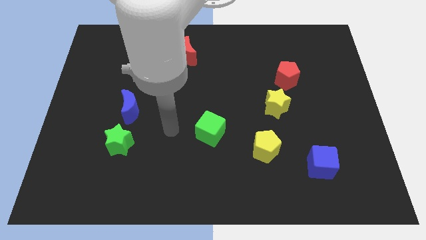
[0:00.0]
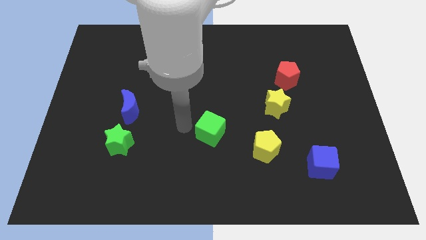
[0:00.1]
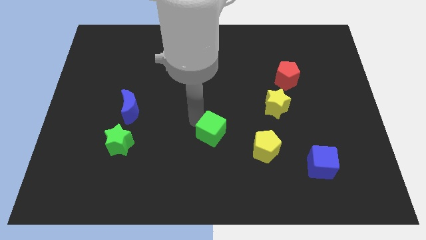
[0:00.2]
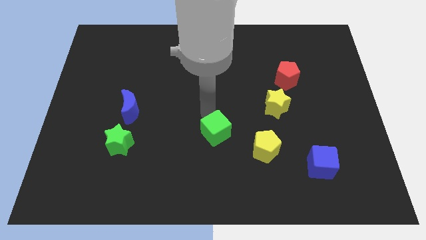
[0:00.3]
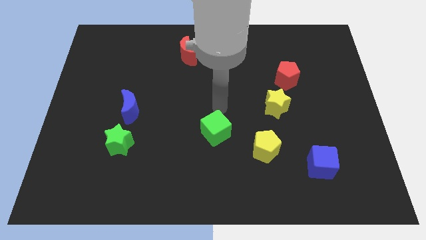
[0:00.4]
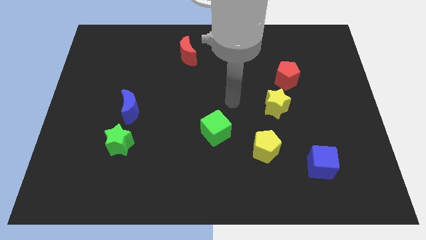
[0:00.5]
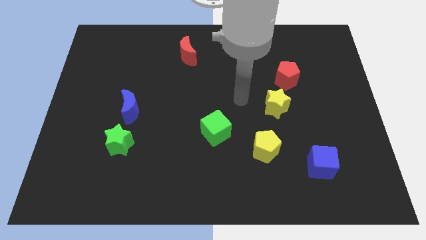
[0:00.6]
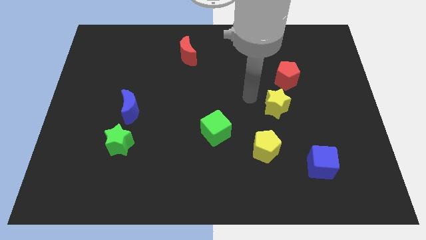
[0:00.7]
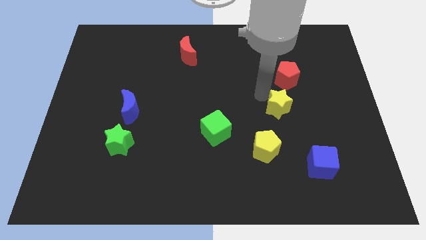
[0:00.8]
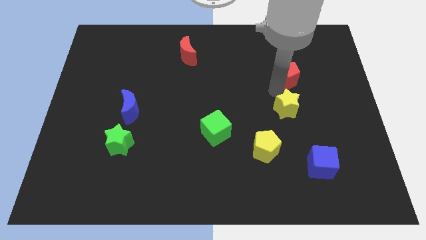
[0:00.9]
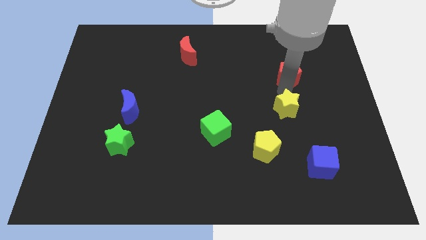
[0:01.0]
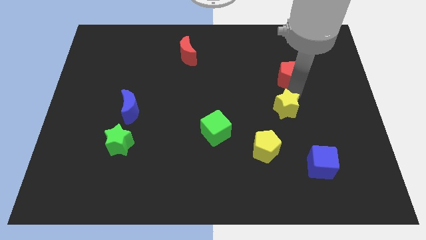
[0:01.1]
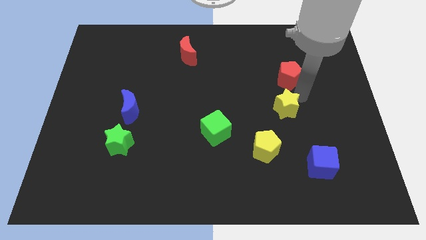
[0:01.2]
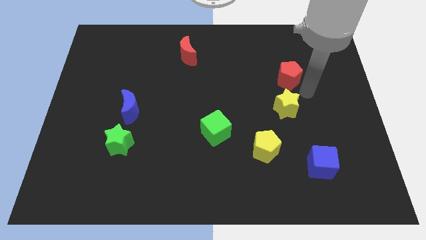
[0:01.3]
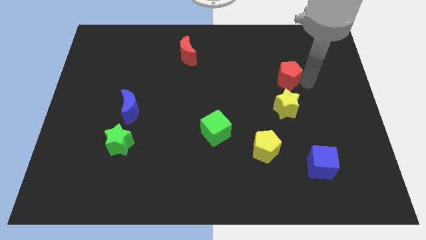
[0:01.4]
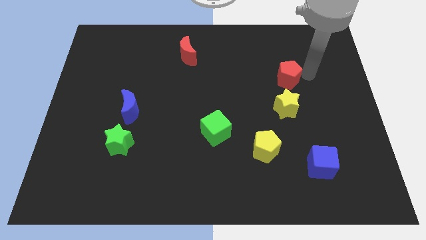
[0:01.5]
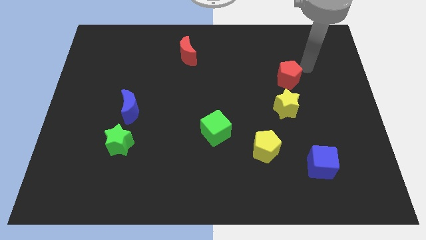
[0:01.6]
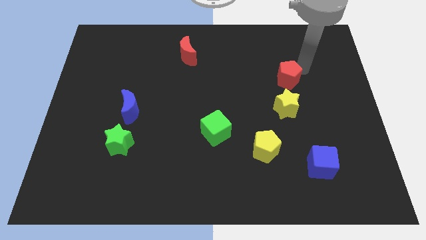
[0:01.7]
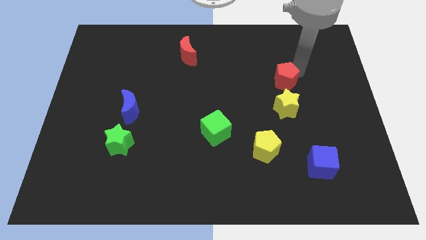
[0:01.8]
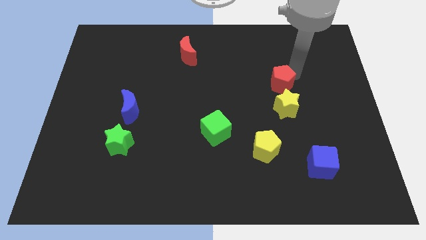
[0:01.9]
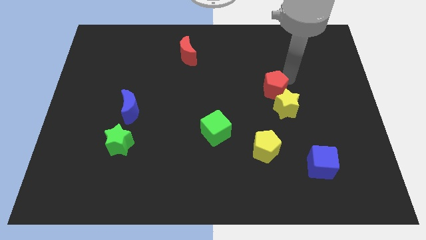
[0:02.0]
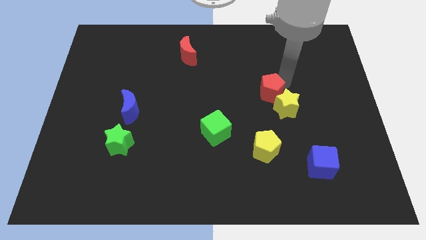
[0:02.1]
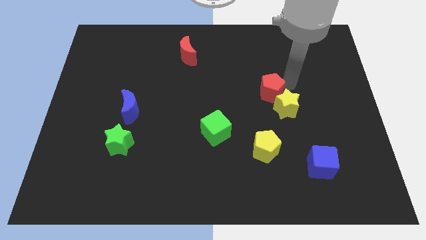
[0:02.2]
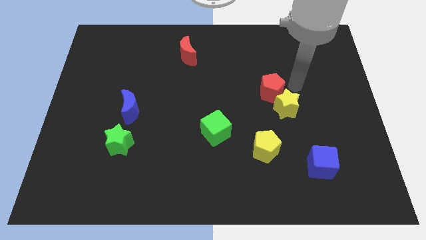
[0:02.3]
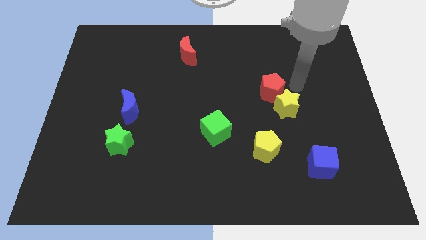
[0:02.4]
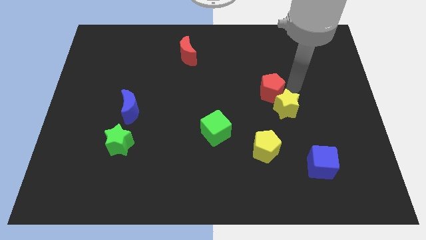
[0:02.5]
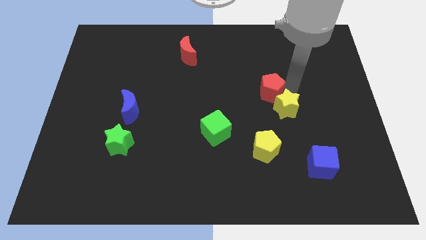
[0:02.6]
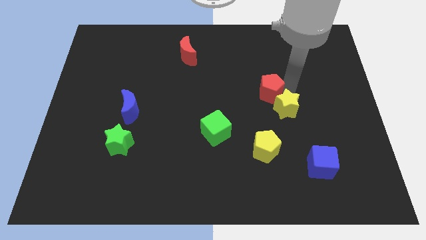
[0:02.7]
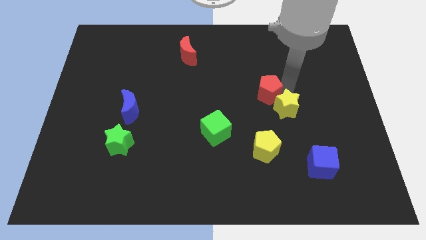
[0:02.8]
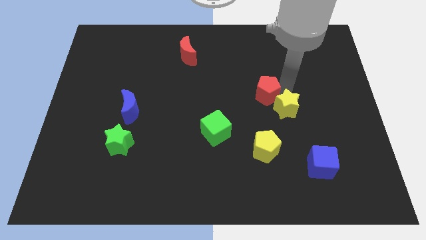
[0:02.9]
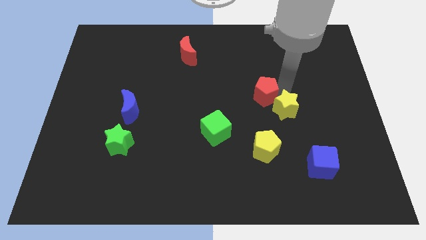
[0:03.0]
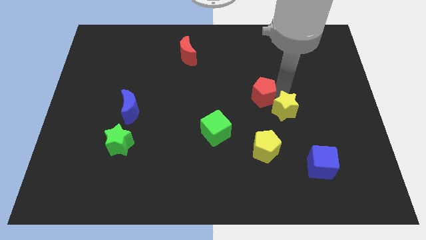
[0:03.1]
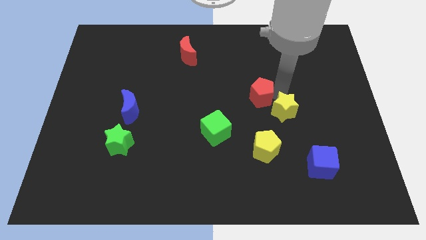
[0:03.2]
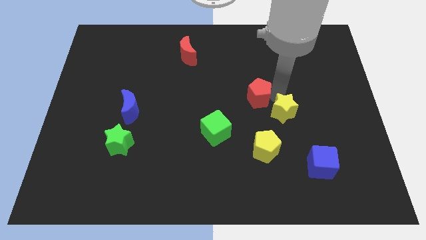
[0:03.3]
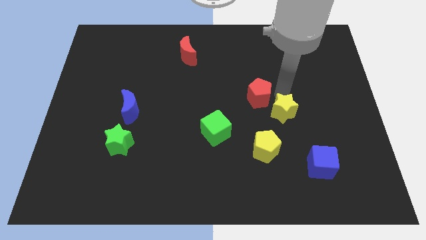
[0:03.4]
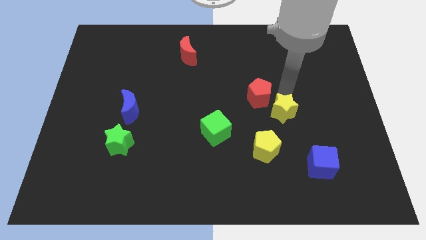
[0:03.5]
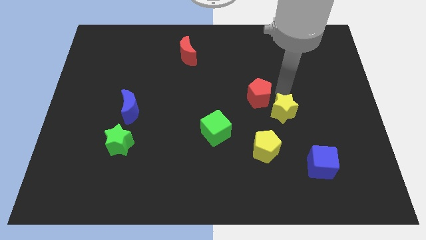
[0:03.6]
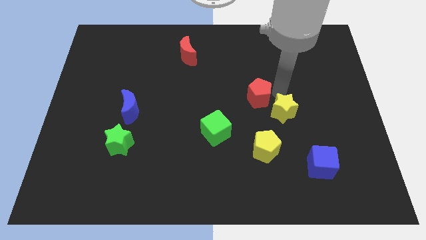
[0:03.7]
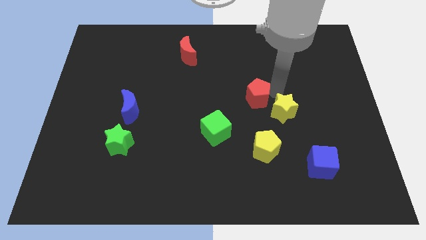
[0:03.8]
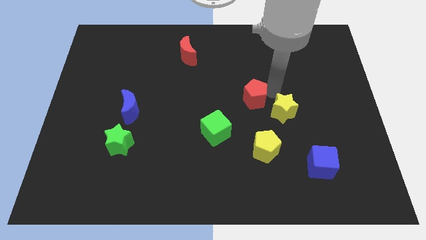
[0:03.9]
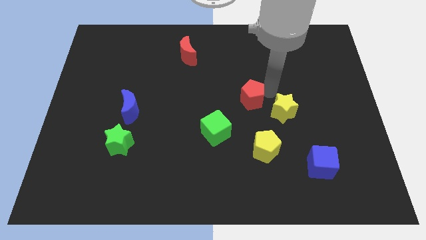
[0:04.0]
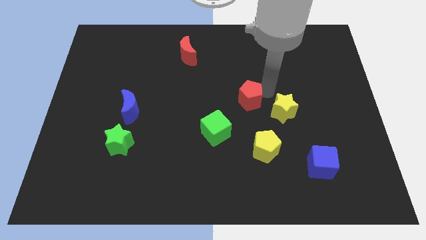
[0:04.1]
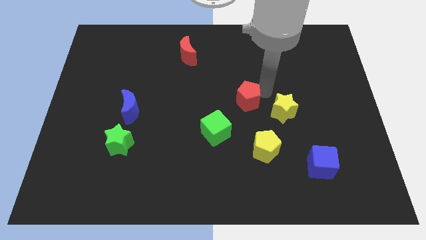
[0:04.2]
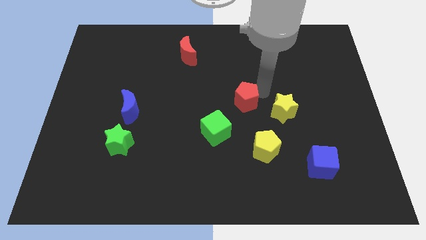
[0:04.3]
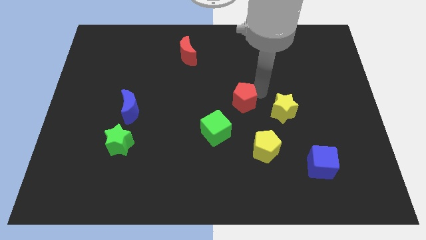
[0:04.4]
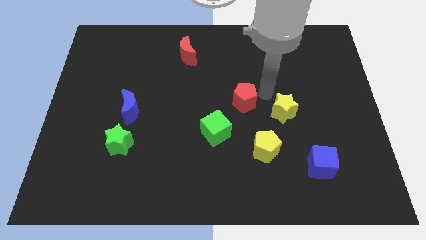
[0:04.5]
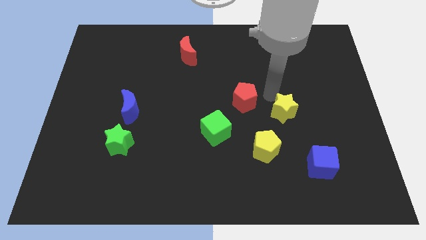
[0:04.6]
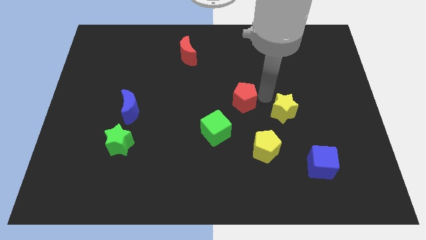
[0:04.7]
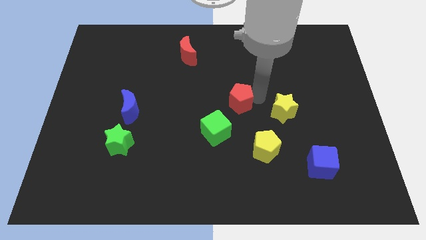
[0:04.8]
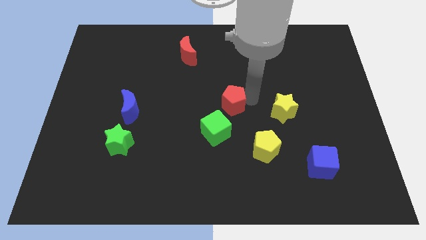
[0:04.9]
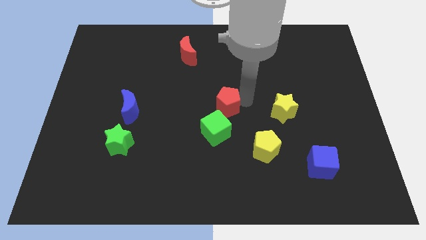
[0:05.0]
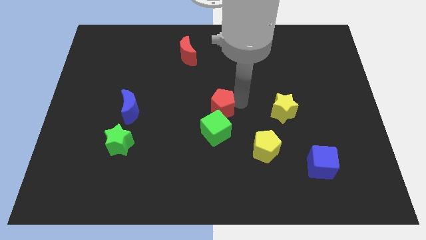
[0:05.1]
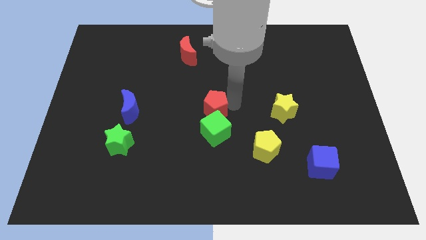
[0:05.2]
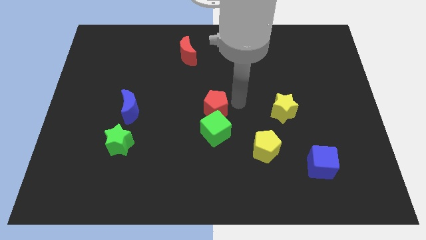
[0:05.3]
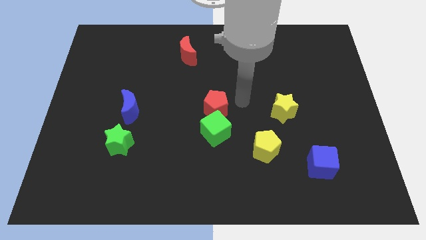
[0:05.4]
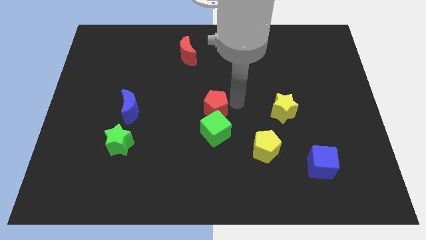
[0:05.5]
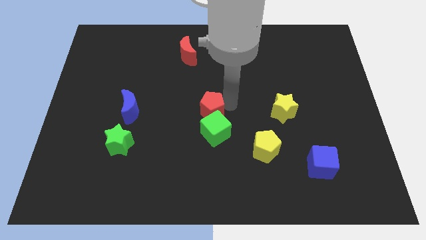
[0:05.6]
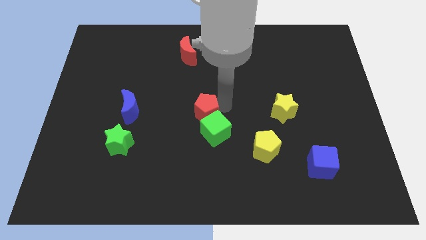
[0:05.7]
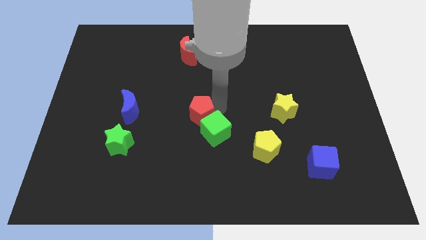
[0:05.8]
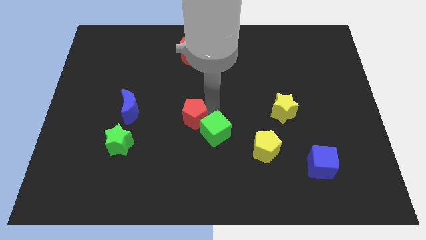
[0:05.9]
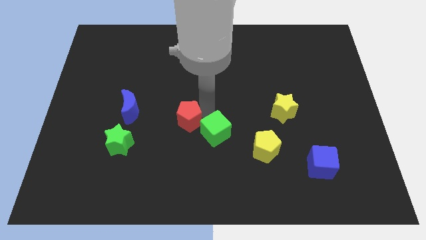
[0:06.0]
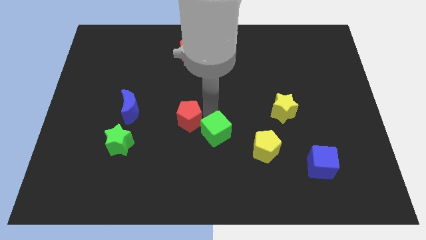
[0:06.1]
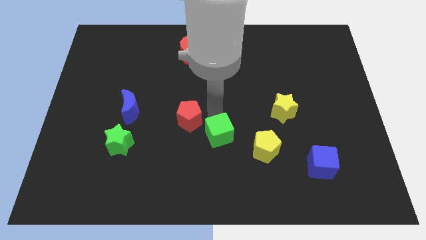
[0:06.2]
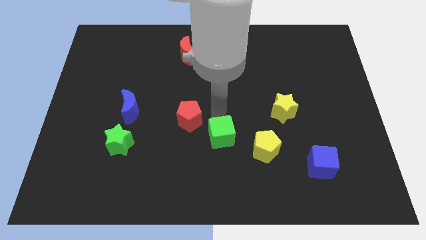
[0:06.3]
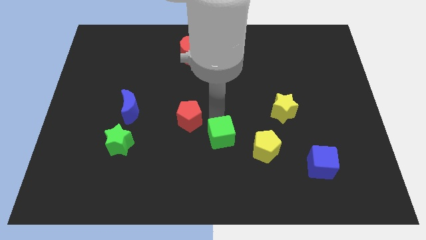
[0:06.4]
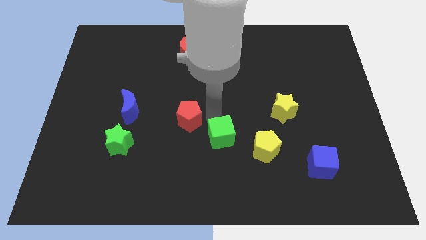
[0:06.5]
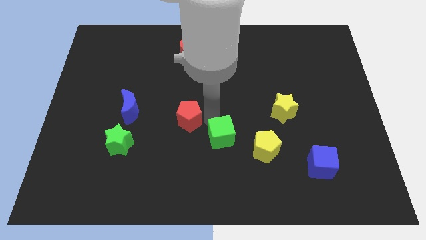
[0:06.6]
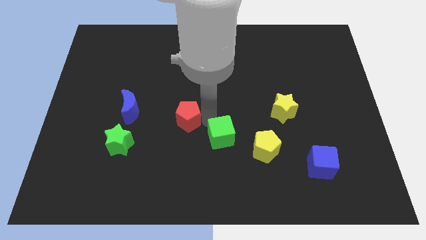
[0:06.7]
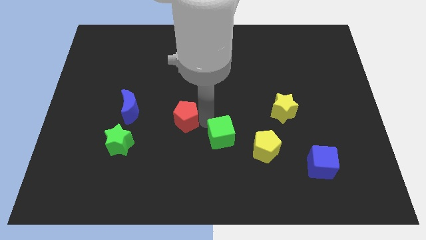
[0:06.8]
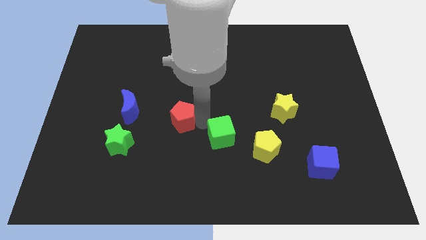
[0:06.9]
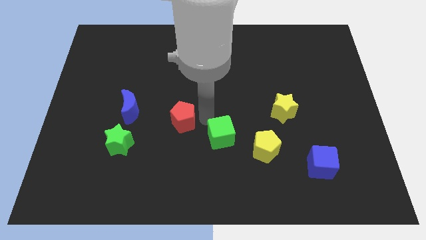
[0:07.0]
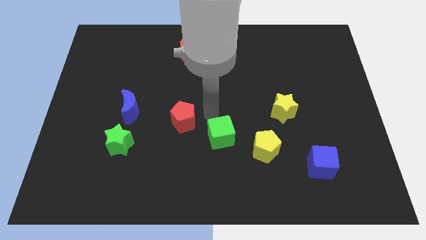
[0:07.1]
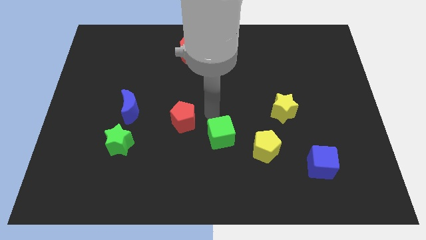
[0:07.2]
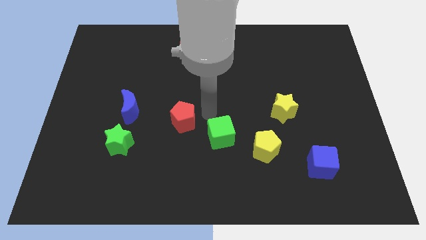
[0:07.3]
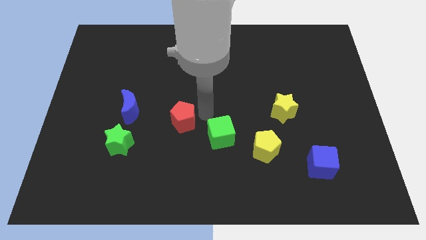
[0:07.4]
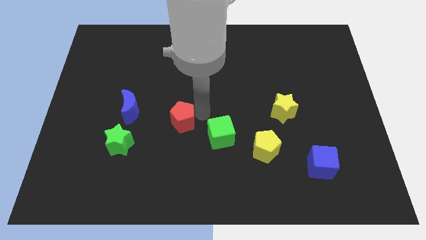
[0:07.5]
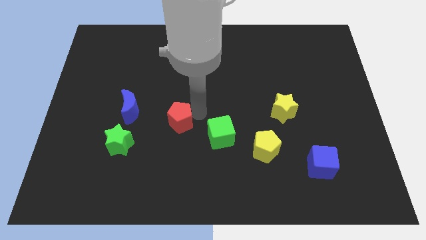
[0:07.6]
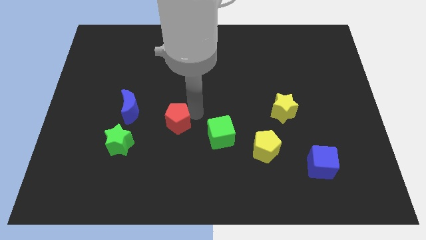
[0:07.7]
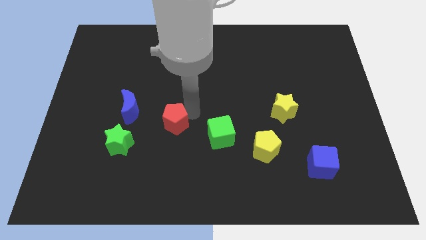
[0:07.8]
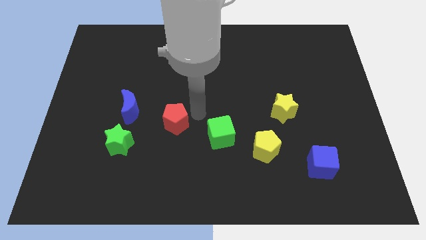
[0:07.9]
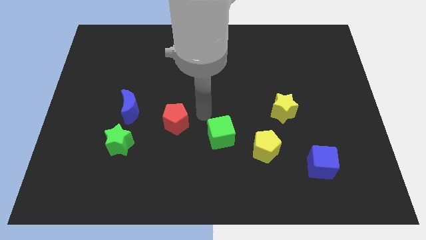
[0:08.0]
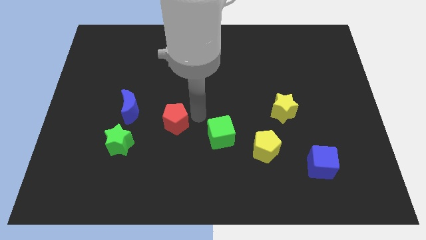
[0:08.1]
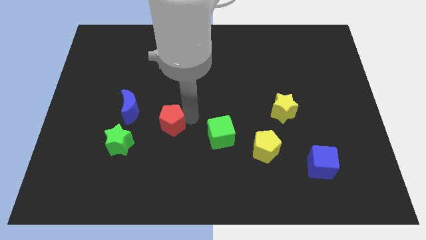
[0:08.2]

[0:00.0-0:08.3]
slide the red pentagon to the bottom right side of the blue moon
